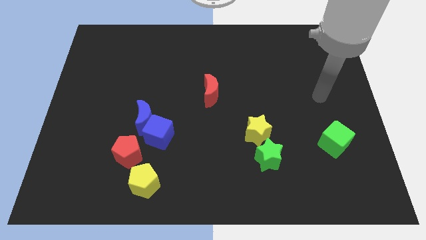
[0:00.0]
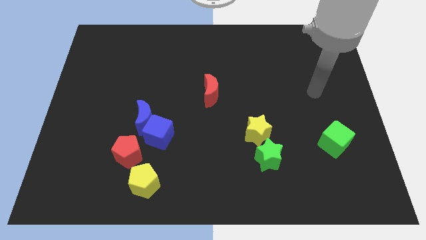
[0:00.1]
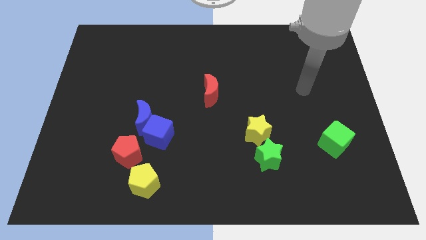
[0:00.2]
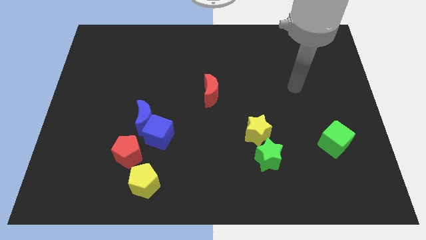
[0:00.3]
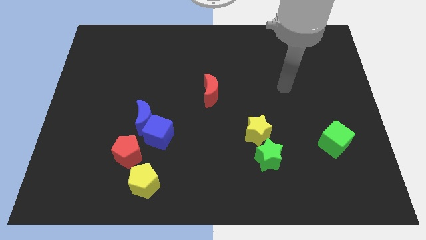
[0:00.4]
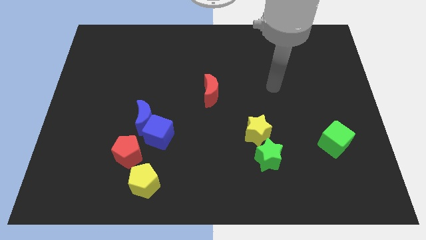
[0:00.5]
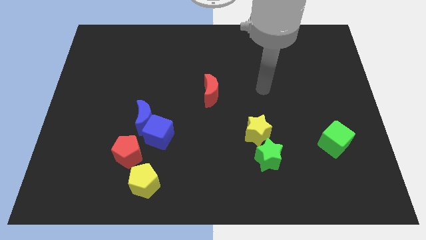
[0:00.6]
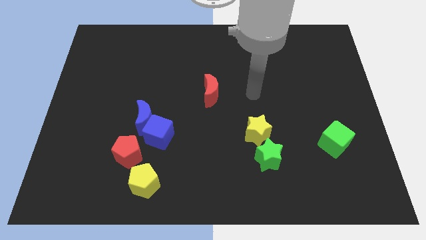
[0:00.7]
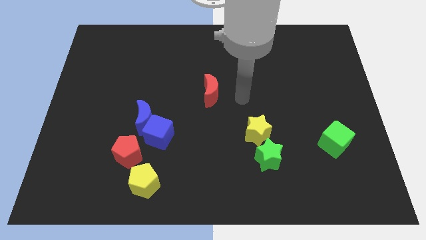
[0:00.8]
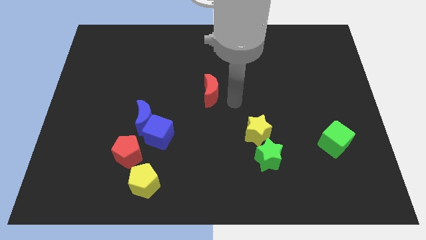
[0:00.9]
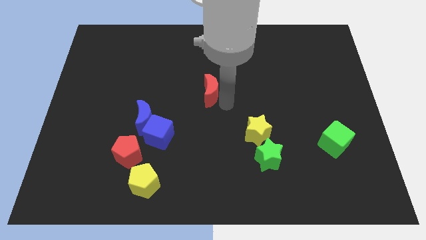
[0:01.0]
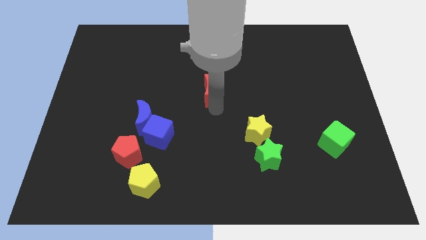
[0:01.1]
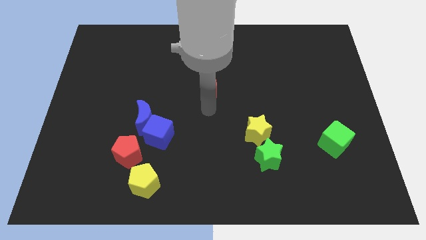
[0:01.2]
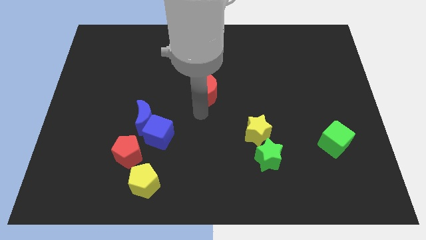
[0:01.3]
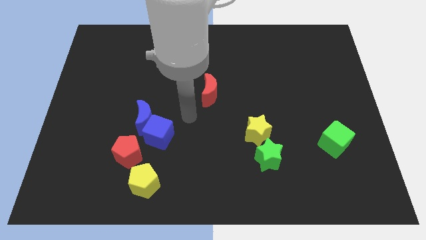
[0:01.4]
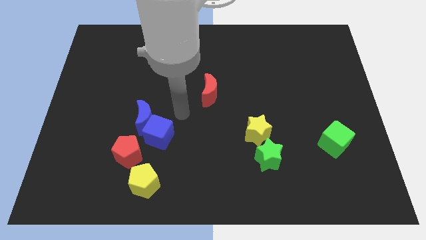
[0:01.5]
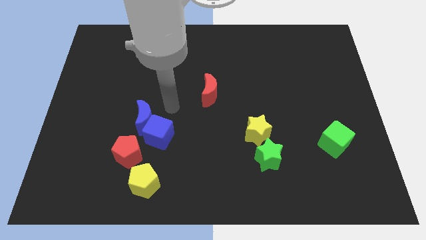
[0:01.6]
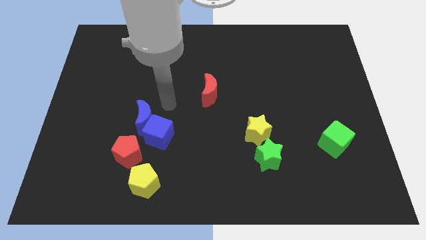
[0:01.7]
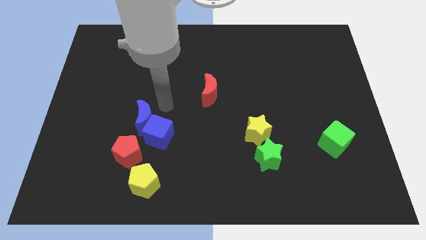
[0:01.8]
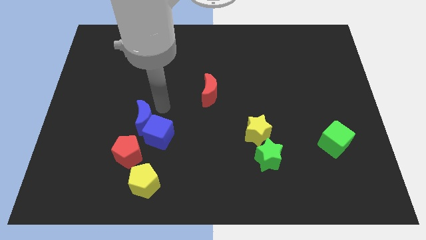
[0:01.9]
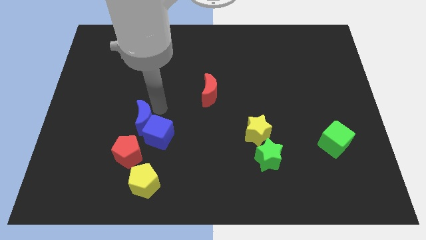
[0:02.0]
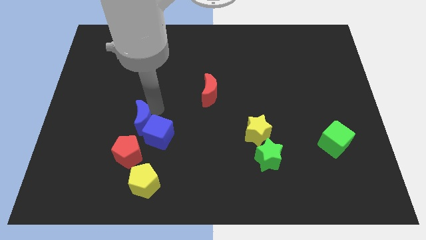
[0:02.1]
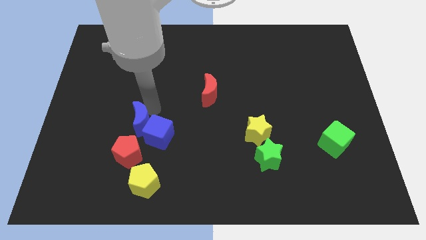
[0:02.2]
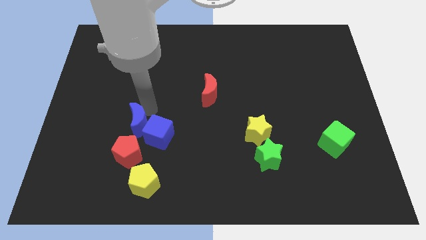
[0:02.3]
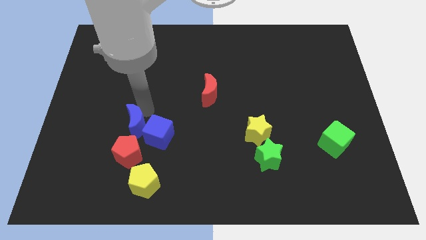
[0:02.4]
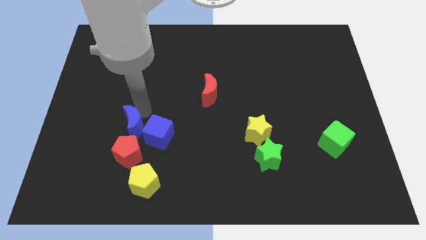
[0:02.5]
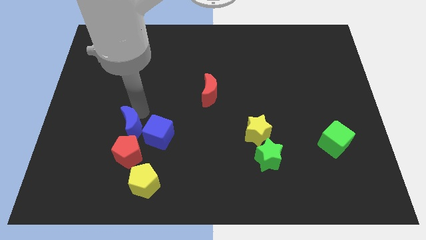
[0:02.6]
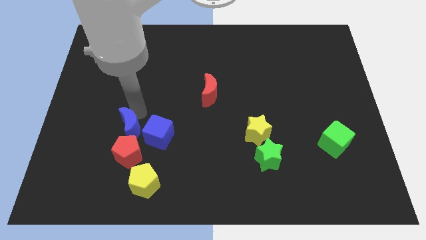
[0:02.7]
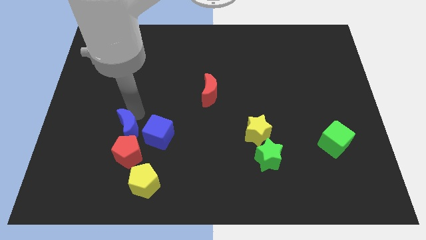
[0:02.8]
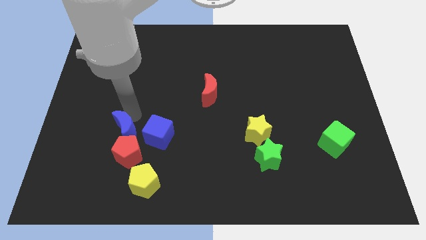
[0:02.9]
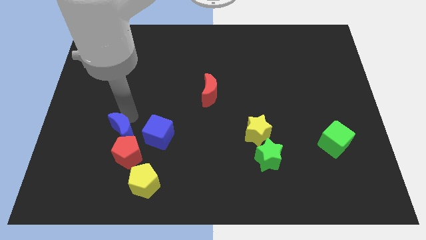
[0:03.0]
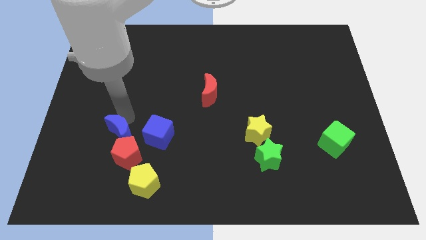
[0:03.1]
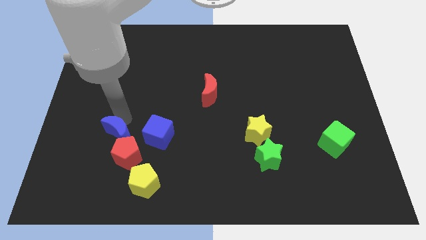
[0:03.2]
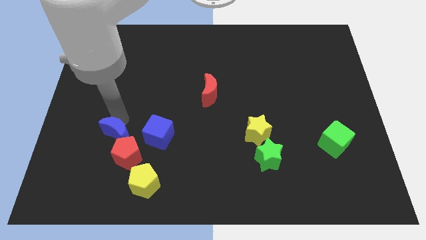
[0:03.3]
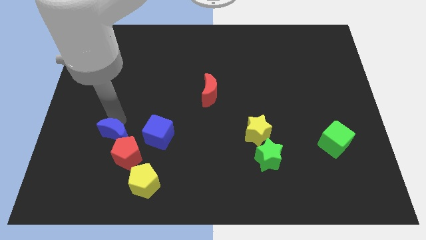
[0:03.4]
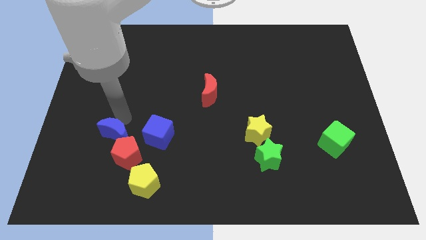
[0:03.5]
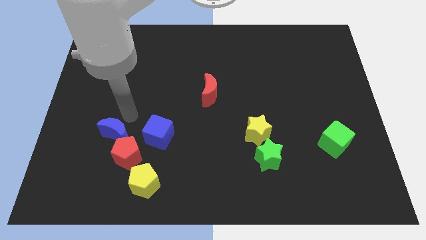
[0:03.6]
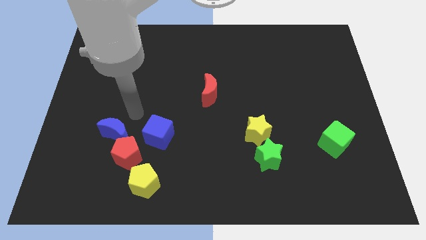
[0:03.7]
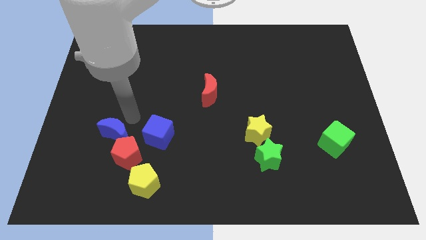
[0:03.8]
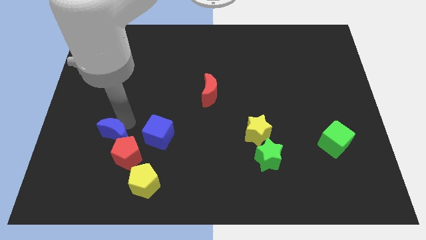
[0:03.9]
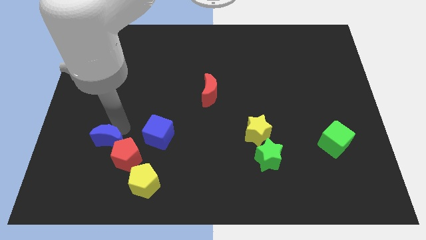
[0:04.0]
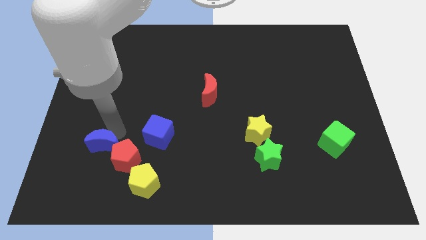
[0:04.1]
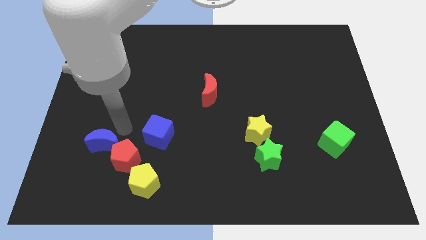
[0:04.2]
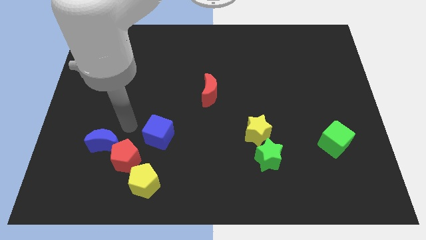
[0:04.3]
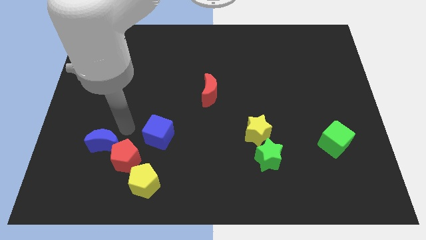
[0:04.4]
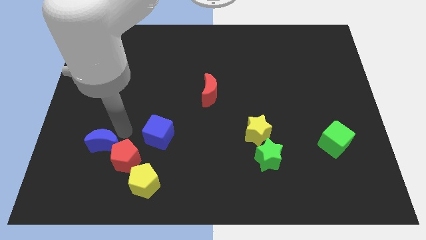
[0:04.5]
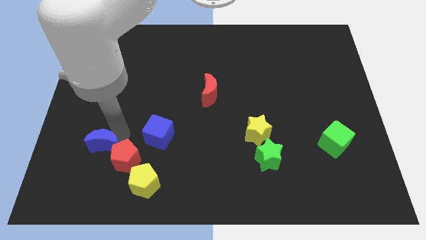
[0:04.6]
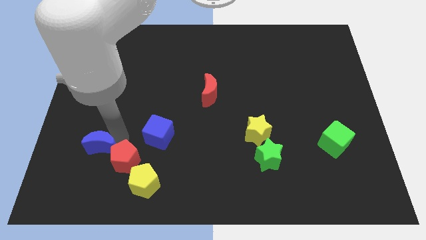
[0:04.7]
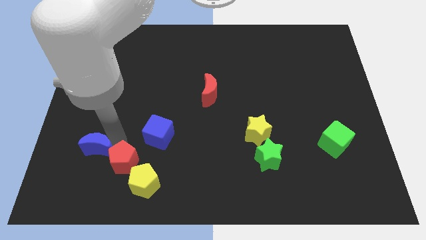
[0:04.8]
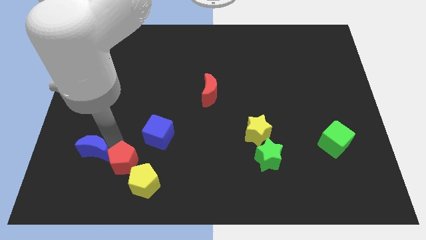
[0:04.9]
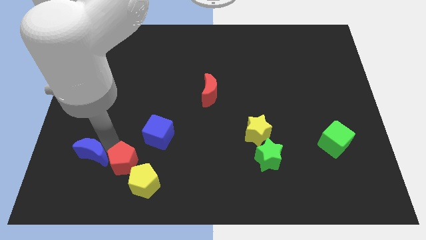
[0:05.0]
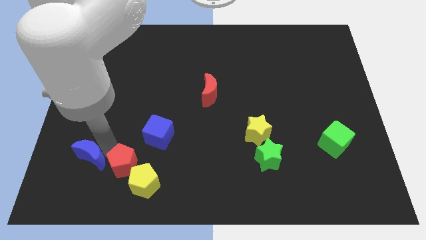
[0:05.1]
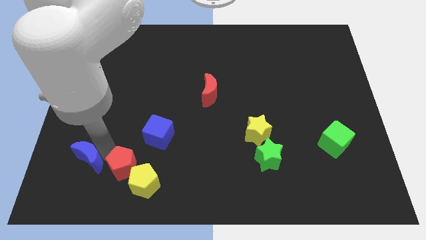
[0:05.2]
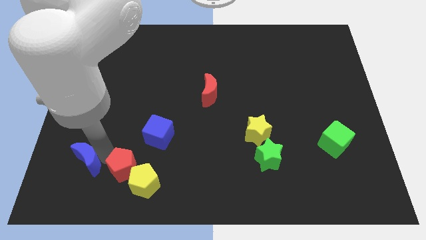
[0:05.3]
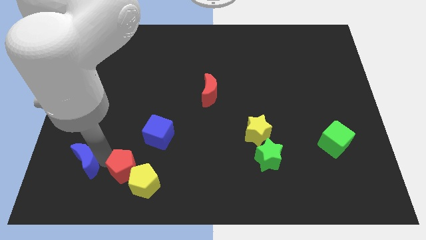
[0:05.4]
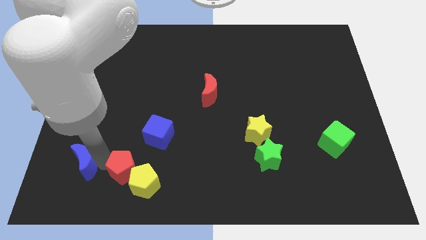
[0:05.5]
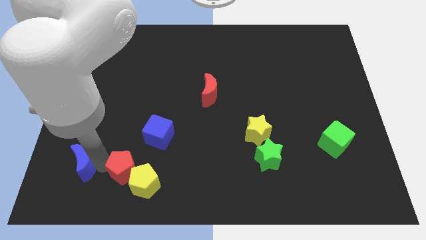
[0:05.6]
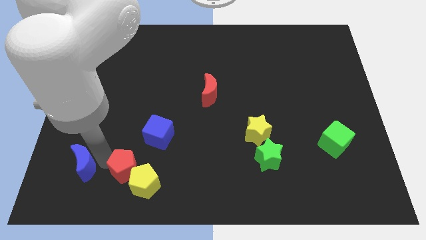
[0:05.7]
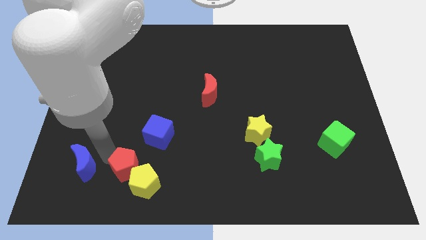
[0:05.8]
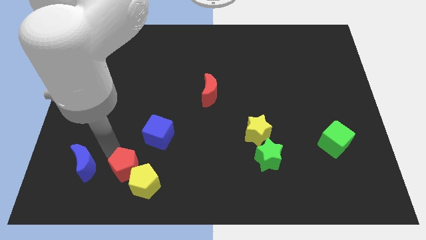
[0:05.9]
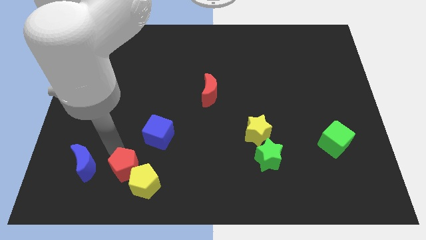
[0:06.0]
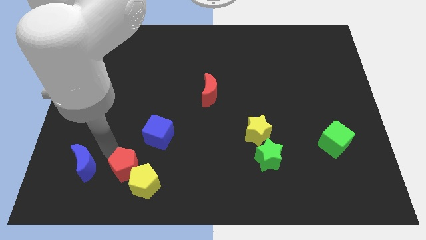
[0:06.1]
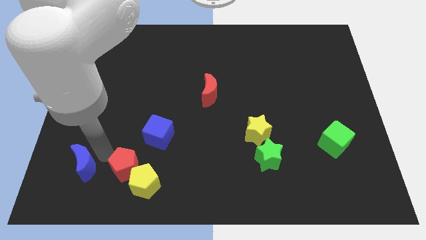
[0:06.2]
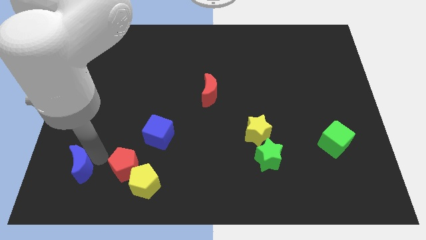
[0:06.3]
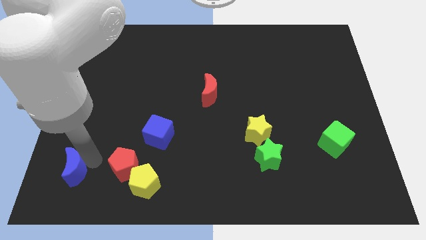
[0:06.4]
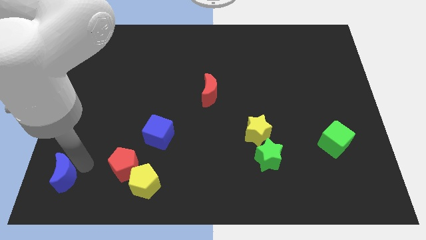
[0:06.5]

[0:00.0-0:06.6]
put the blue moon to the bottom left of the board

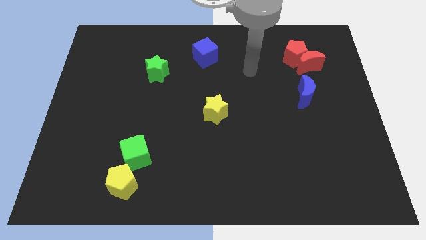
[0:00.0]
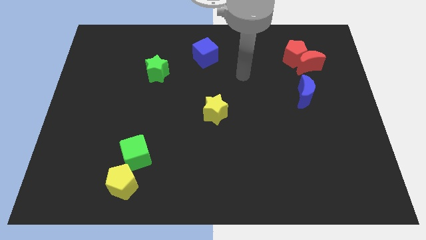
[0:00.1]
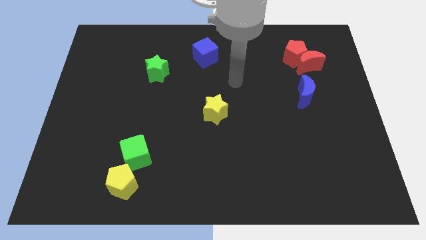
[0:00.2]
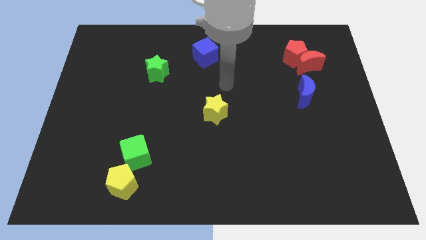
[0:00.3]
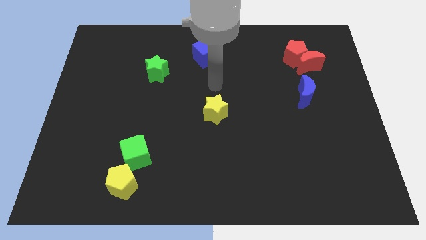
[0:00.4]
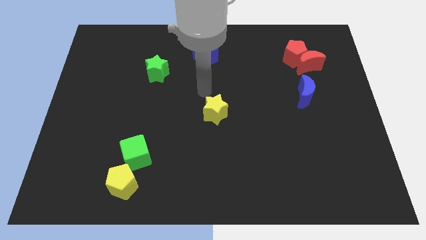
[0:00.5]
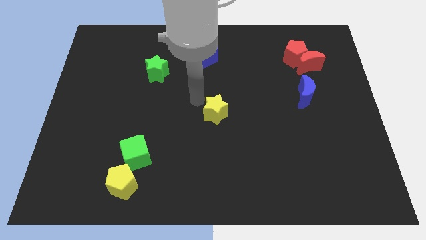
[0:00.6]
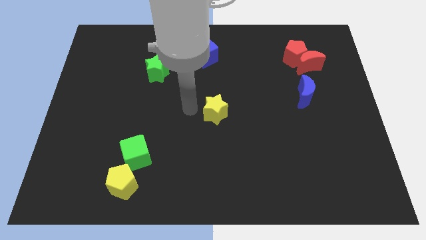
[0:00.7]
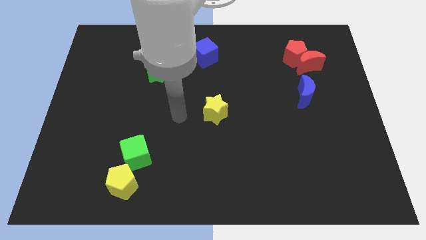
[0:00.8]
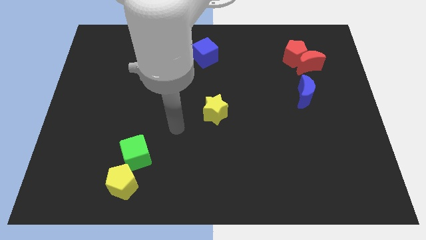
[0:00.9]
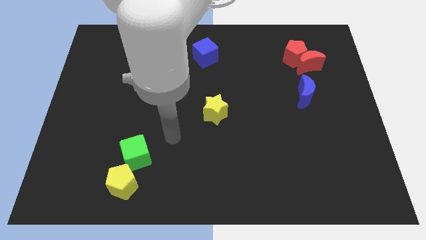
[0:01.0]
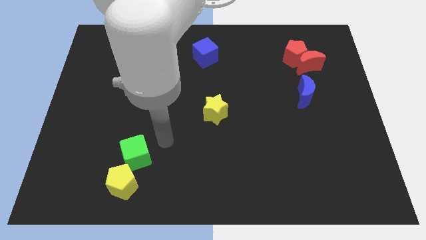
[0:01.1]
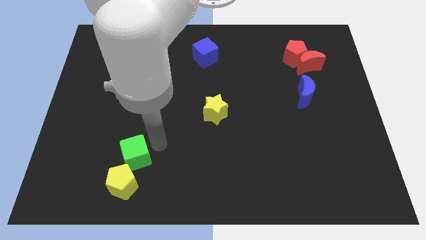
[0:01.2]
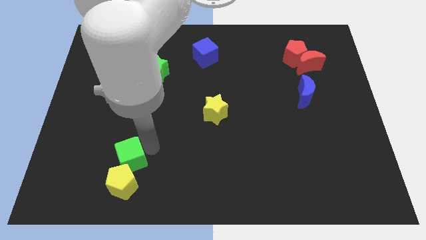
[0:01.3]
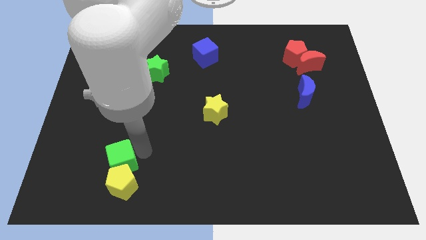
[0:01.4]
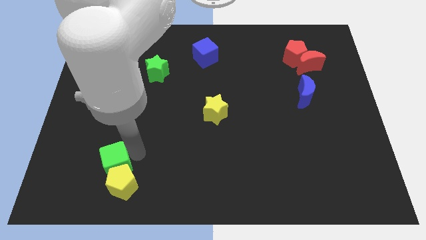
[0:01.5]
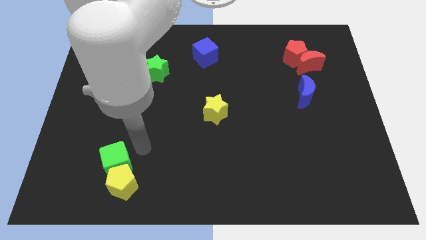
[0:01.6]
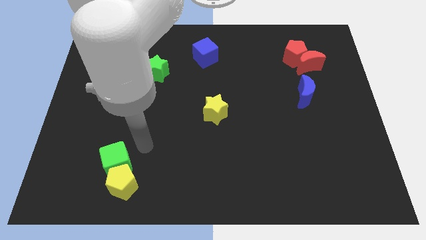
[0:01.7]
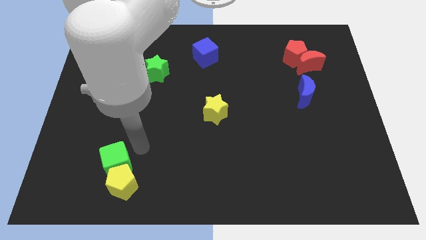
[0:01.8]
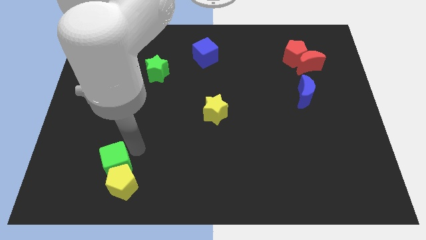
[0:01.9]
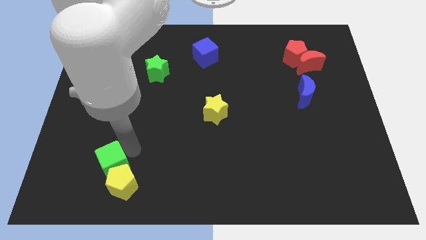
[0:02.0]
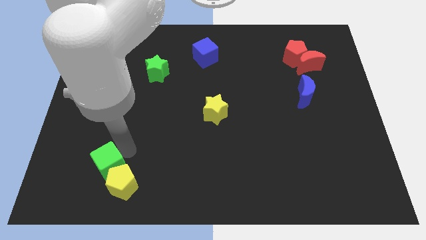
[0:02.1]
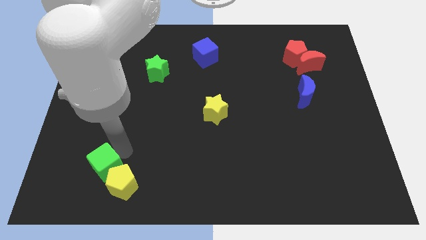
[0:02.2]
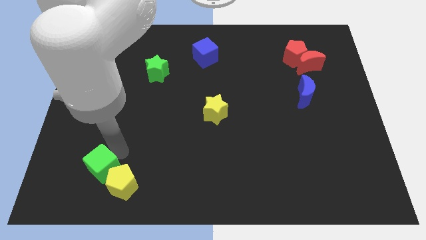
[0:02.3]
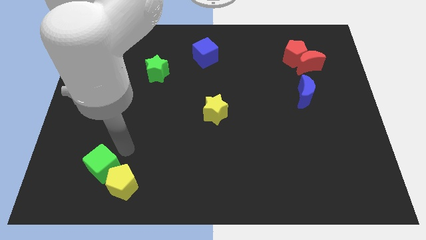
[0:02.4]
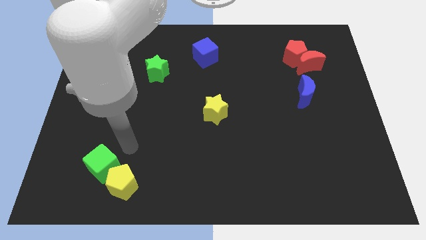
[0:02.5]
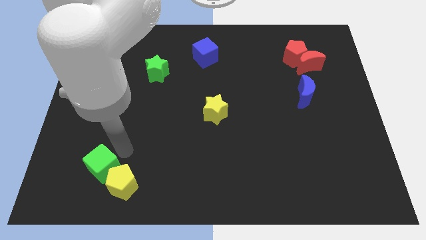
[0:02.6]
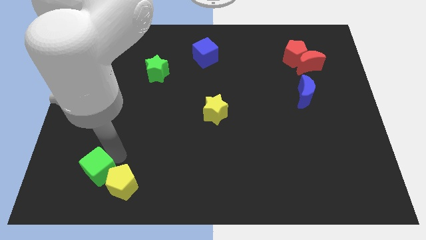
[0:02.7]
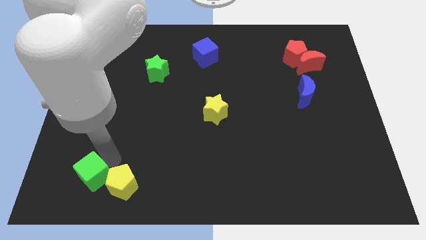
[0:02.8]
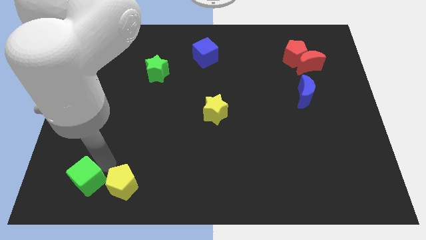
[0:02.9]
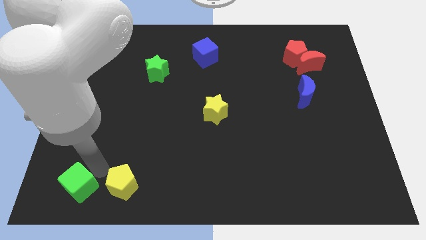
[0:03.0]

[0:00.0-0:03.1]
slide the green cube to the bottom left of the board
